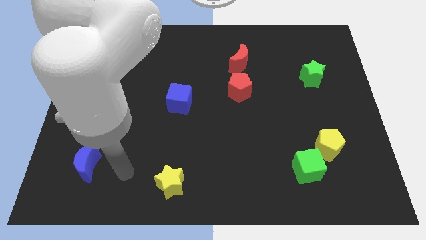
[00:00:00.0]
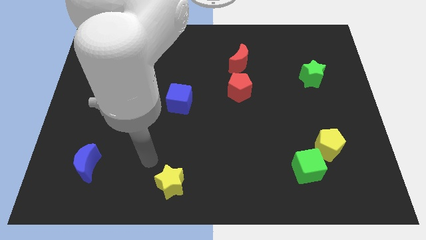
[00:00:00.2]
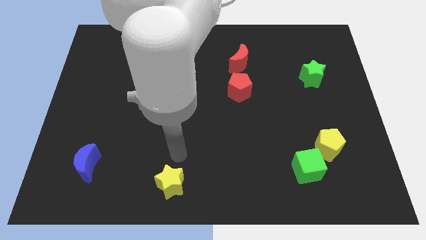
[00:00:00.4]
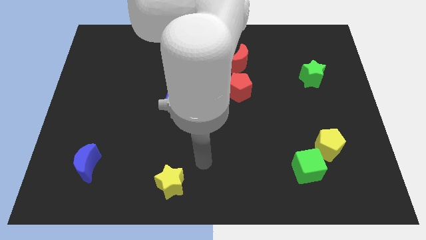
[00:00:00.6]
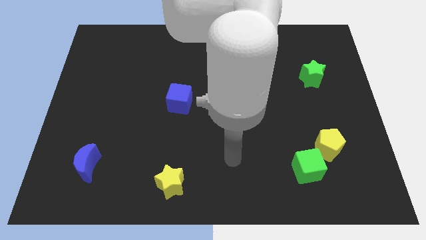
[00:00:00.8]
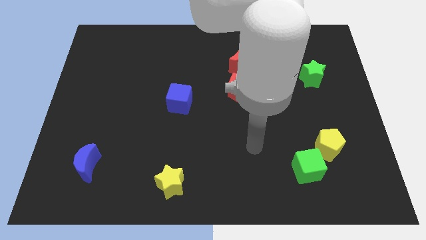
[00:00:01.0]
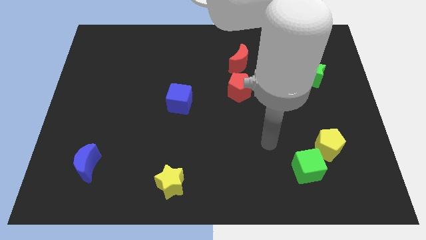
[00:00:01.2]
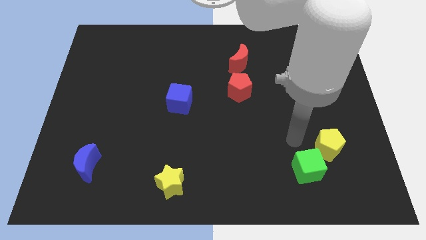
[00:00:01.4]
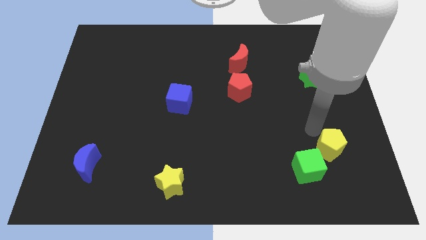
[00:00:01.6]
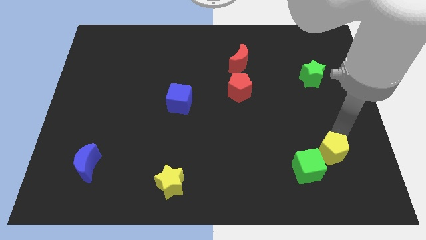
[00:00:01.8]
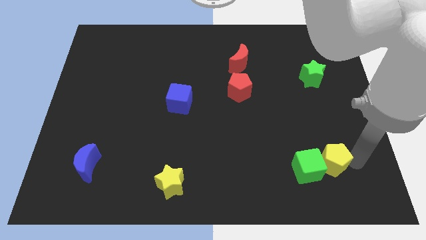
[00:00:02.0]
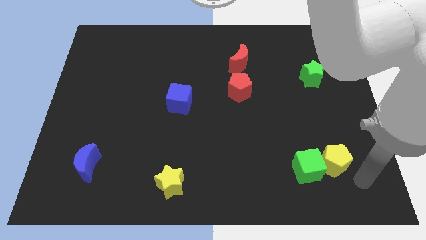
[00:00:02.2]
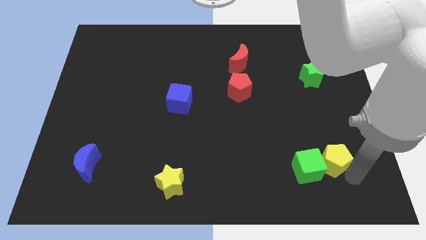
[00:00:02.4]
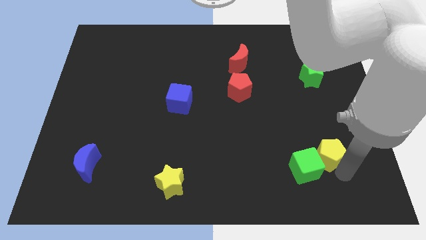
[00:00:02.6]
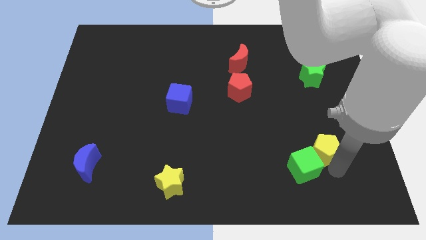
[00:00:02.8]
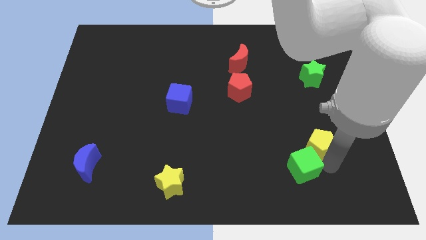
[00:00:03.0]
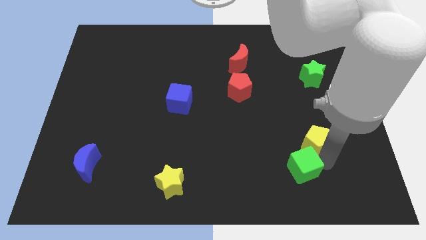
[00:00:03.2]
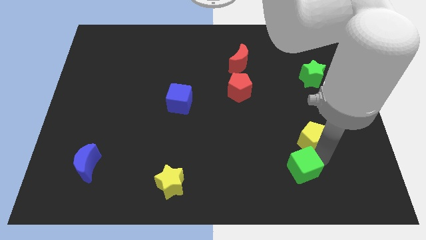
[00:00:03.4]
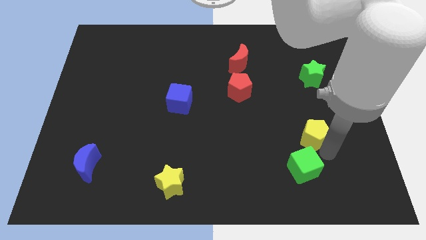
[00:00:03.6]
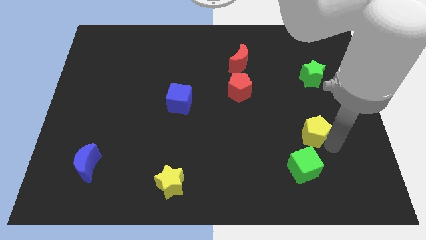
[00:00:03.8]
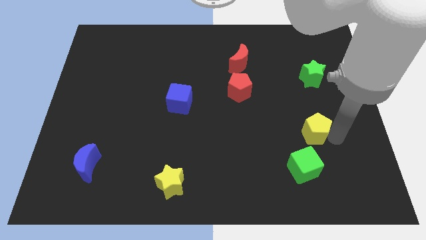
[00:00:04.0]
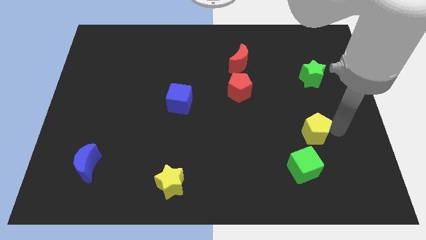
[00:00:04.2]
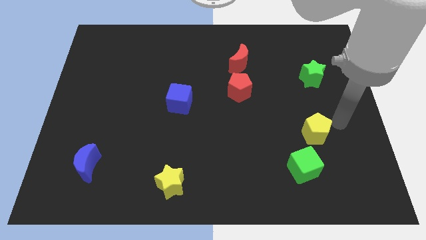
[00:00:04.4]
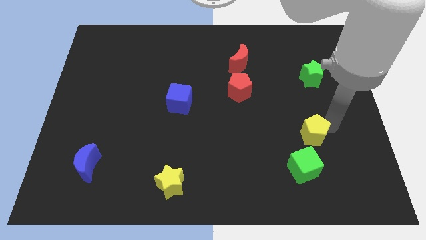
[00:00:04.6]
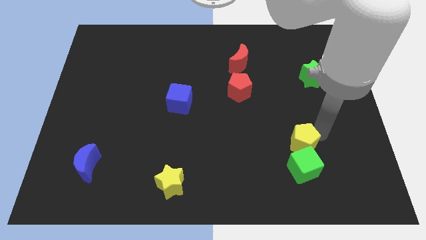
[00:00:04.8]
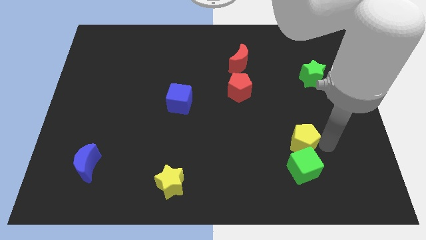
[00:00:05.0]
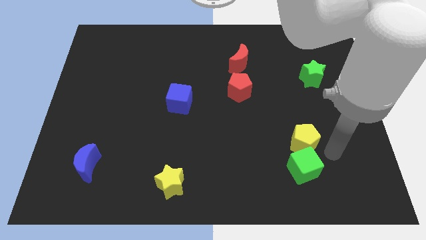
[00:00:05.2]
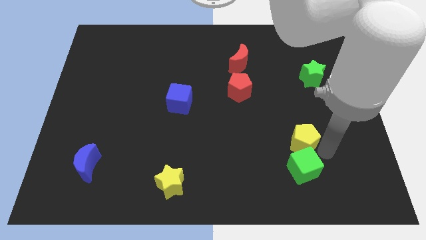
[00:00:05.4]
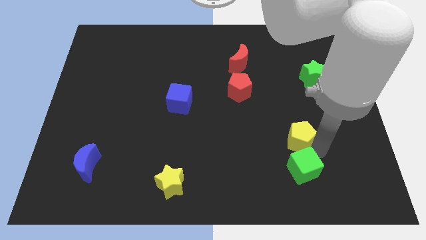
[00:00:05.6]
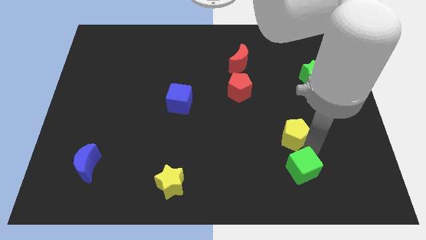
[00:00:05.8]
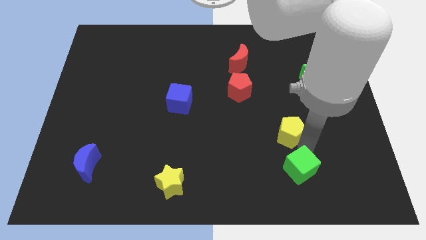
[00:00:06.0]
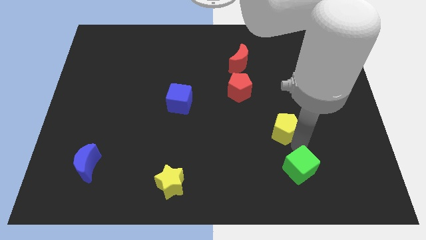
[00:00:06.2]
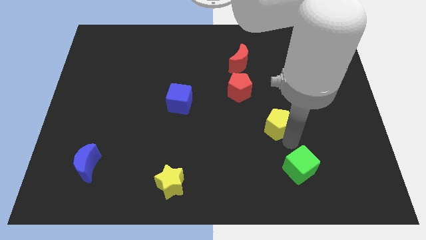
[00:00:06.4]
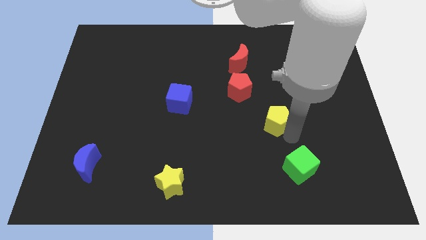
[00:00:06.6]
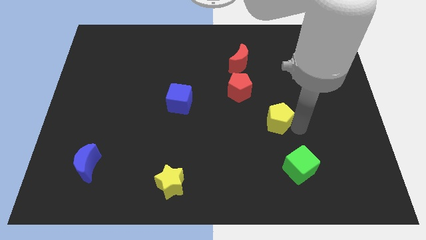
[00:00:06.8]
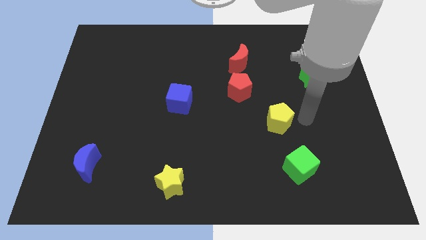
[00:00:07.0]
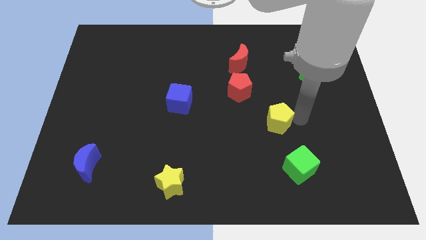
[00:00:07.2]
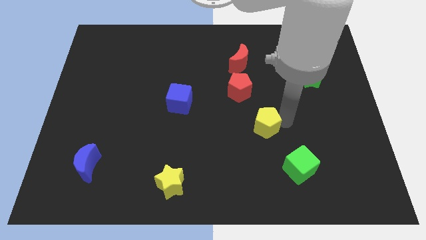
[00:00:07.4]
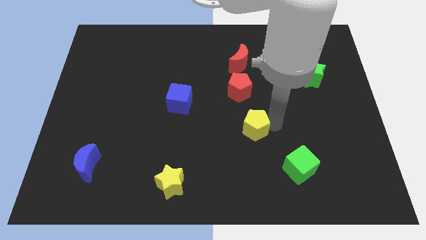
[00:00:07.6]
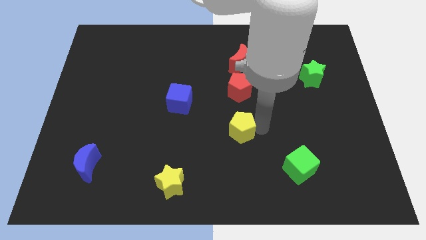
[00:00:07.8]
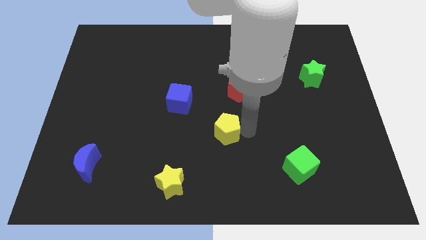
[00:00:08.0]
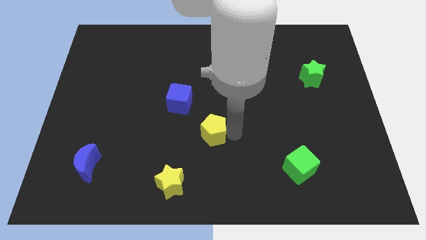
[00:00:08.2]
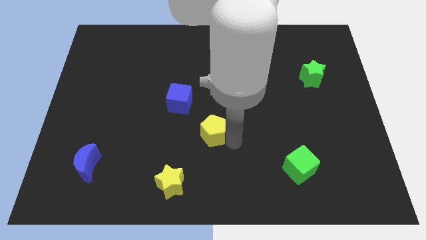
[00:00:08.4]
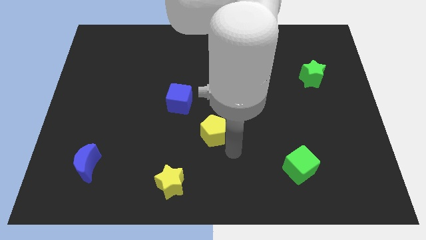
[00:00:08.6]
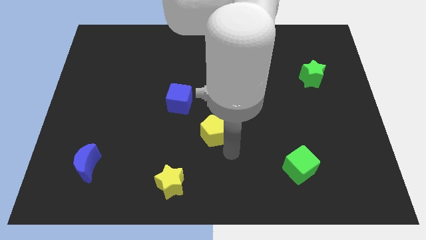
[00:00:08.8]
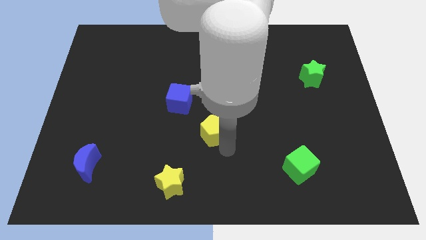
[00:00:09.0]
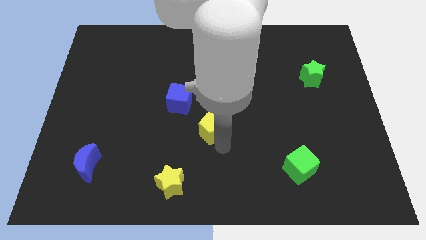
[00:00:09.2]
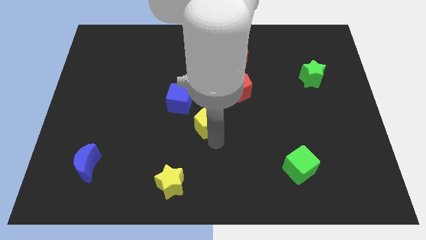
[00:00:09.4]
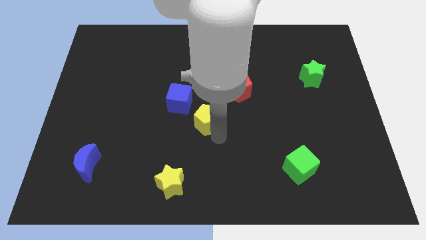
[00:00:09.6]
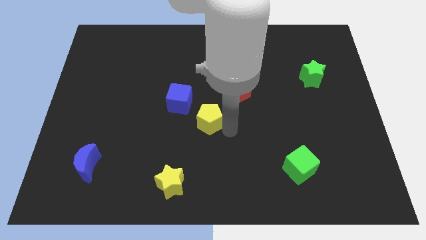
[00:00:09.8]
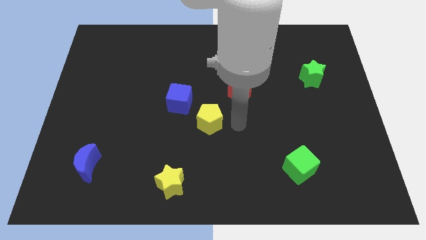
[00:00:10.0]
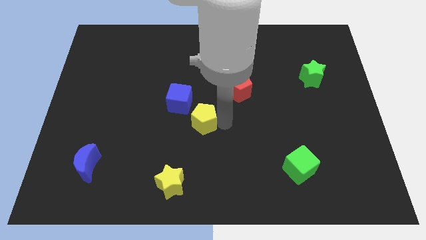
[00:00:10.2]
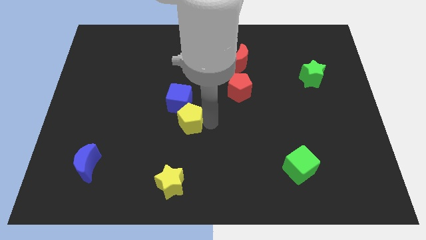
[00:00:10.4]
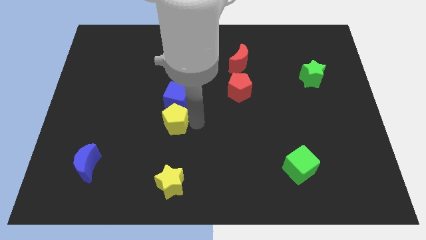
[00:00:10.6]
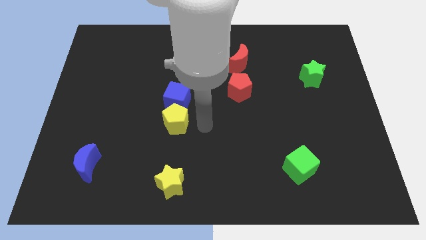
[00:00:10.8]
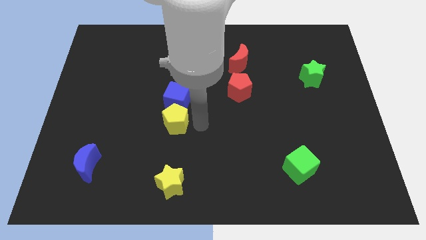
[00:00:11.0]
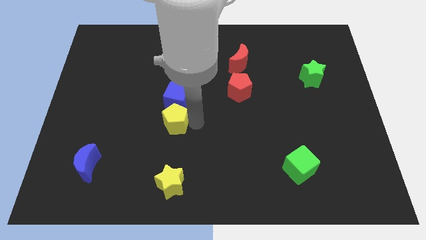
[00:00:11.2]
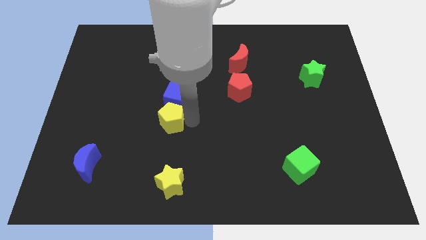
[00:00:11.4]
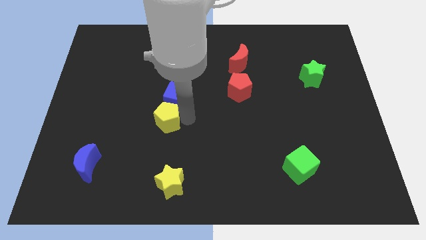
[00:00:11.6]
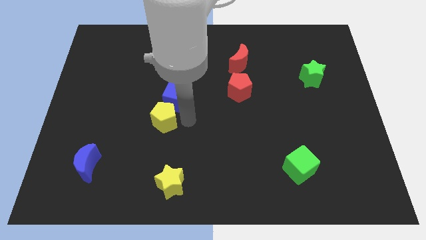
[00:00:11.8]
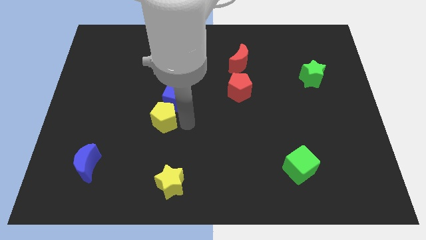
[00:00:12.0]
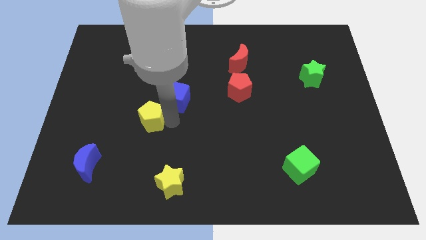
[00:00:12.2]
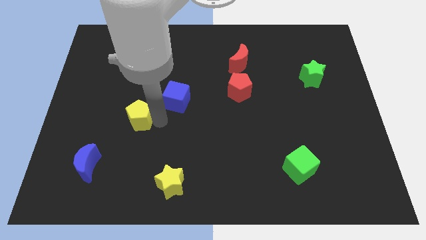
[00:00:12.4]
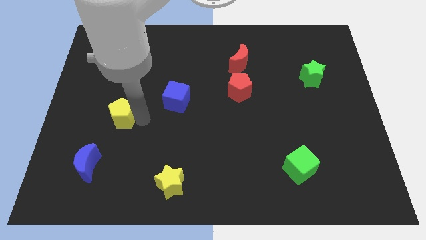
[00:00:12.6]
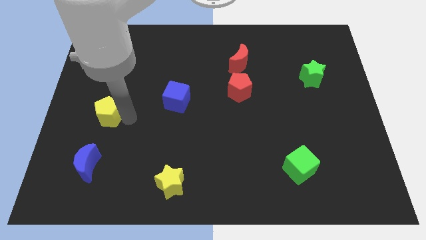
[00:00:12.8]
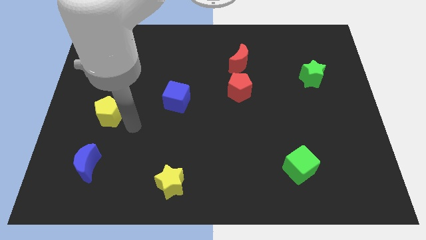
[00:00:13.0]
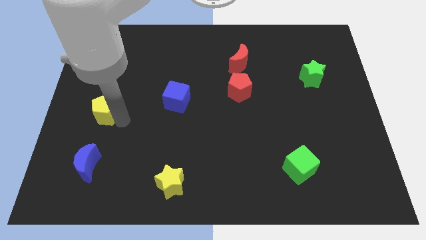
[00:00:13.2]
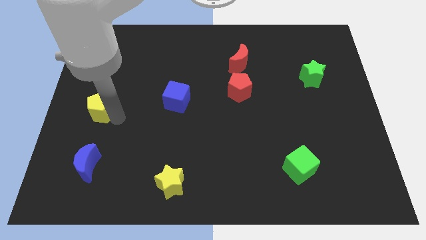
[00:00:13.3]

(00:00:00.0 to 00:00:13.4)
move the yellow pentagon to the left side of the board
